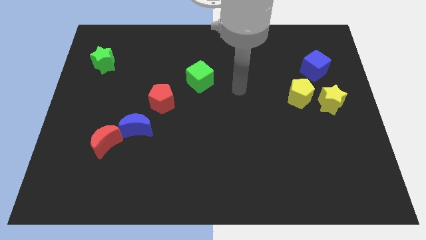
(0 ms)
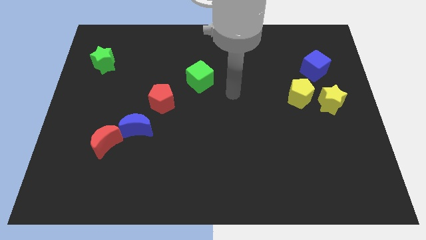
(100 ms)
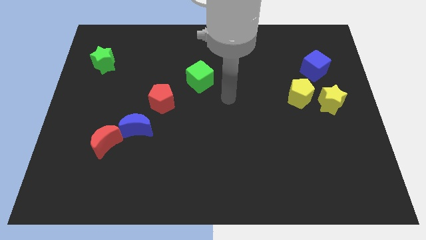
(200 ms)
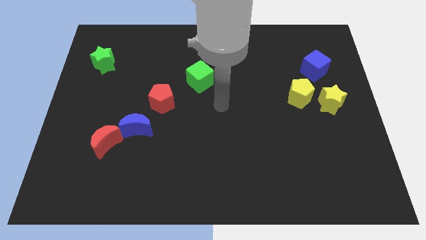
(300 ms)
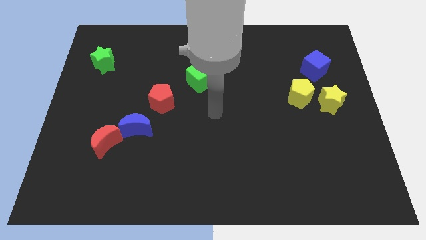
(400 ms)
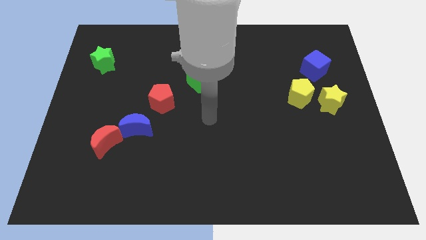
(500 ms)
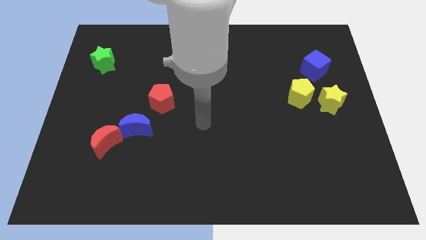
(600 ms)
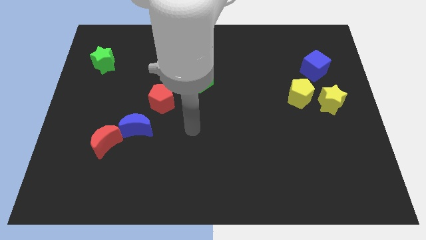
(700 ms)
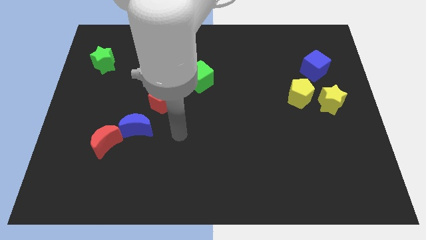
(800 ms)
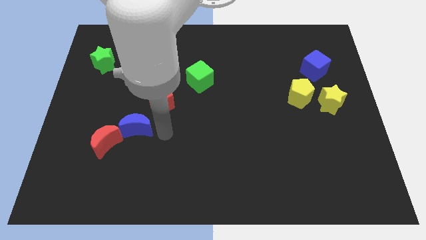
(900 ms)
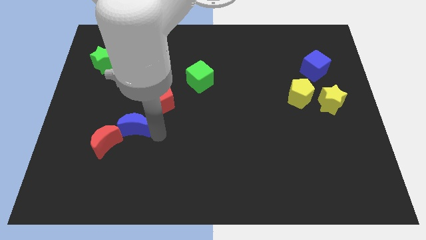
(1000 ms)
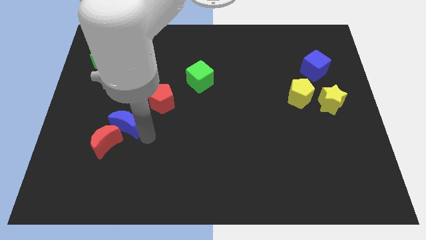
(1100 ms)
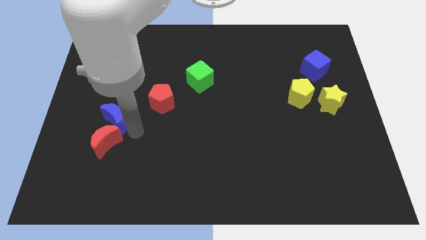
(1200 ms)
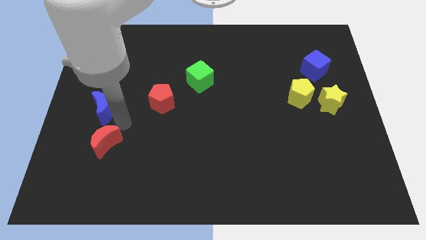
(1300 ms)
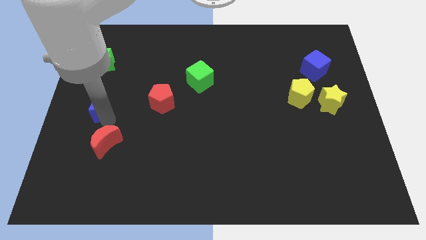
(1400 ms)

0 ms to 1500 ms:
separate the red moon from the blue moon

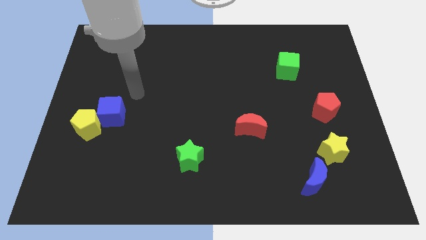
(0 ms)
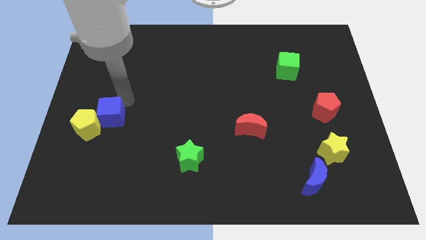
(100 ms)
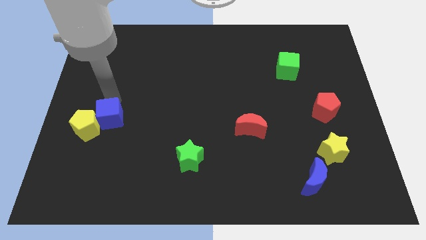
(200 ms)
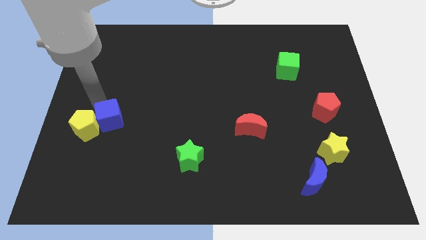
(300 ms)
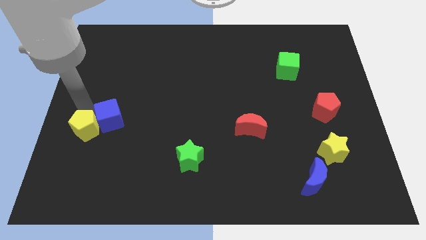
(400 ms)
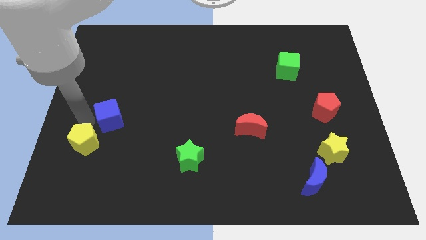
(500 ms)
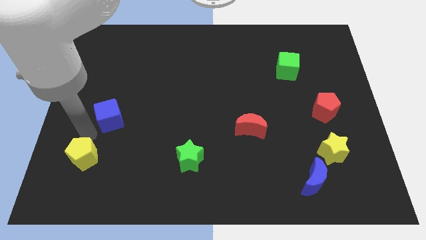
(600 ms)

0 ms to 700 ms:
move the blue cube away from the yellow pentagon

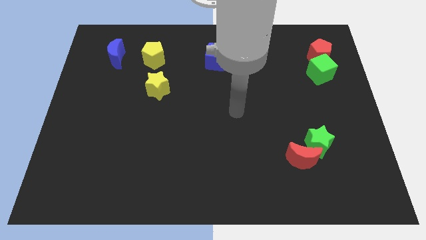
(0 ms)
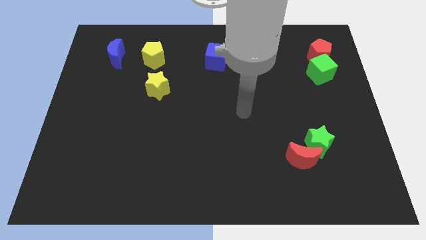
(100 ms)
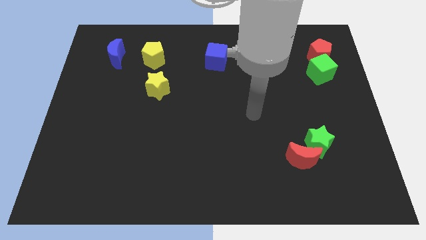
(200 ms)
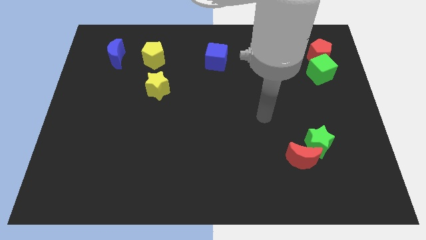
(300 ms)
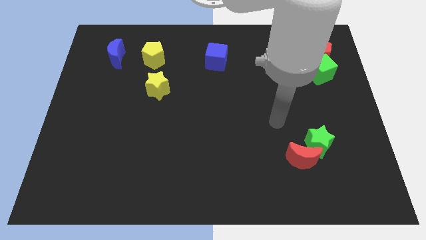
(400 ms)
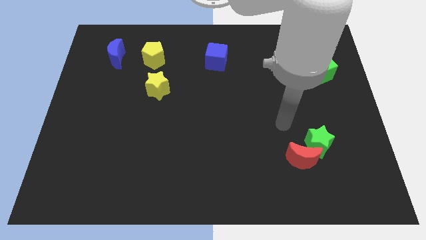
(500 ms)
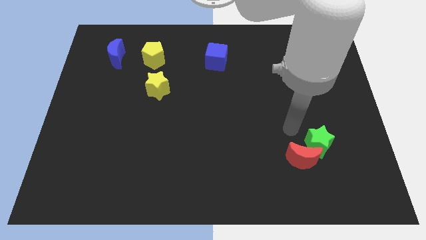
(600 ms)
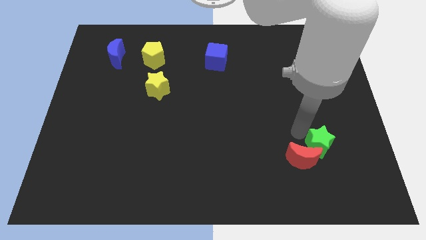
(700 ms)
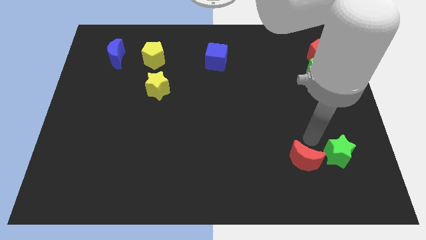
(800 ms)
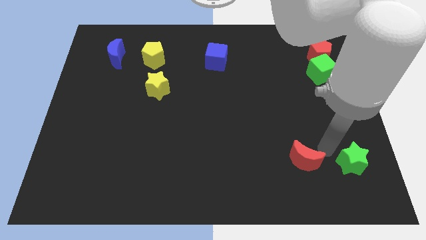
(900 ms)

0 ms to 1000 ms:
separate the red moon from the green star

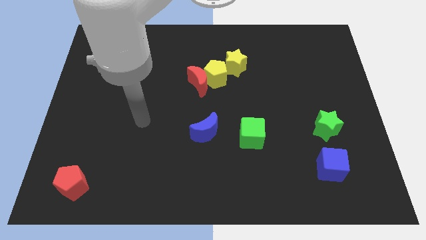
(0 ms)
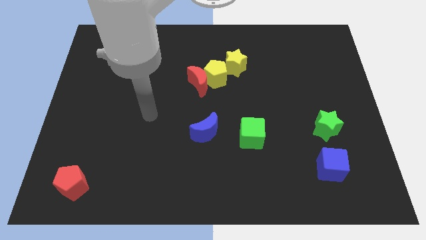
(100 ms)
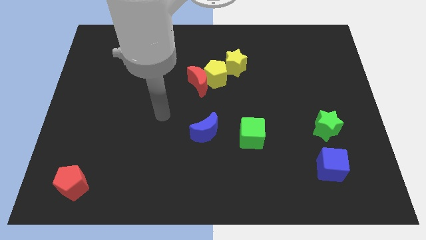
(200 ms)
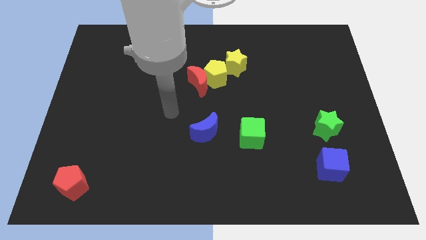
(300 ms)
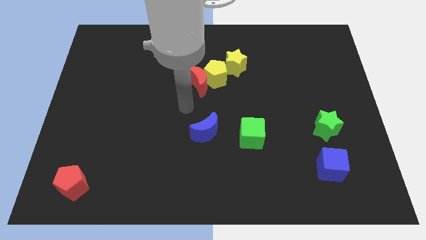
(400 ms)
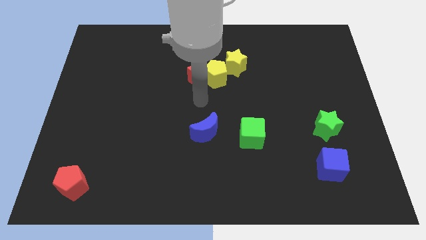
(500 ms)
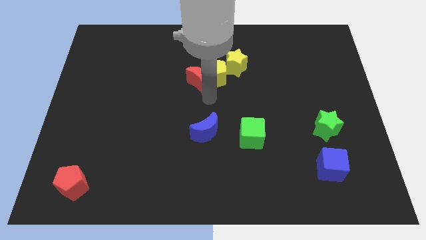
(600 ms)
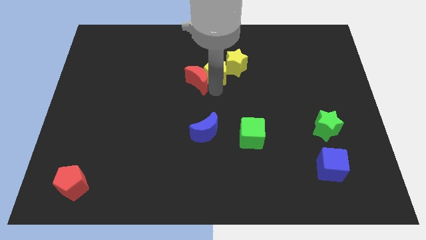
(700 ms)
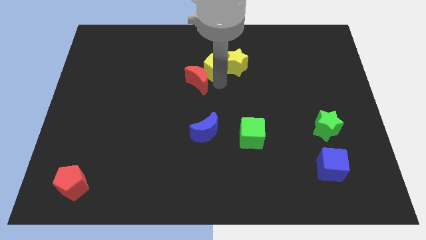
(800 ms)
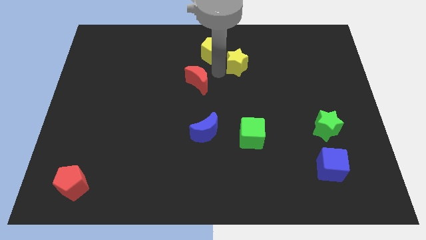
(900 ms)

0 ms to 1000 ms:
separate the red moon from the yellow pentagon

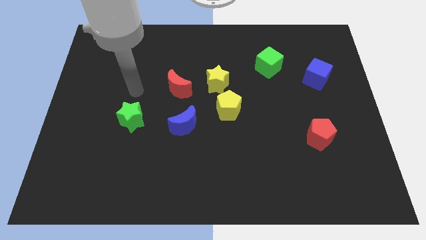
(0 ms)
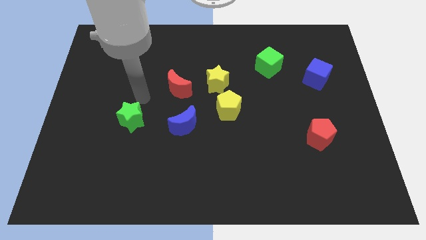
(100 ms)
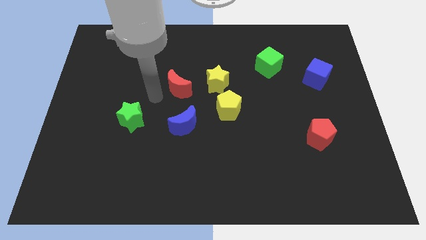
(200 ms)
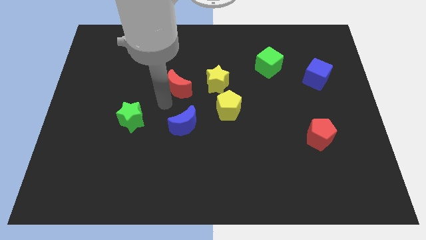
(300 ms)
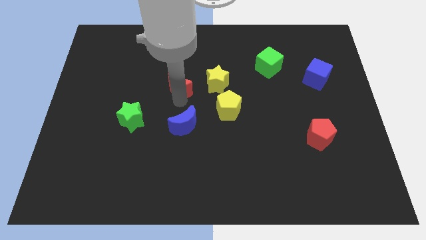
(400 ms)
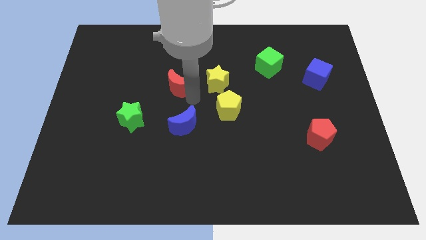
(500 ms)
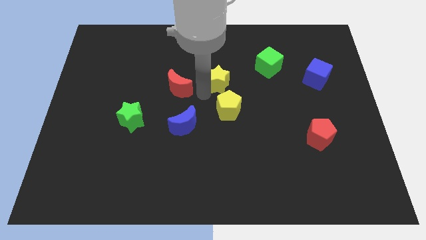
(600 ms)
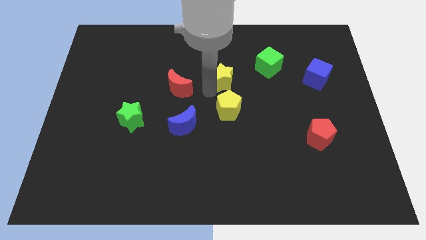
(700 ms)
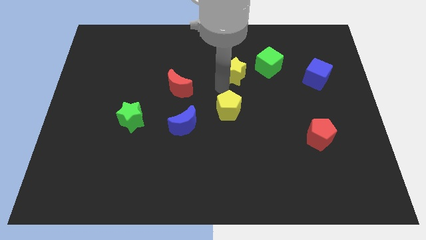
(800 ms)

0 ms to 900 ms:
pull the yellow pentagon apart from the yellow star

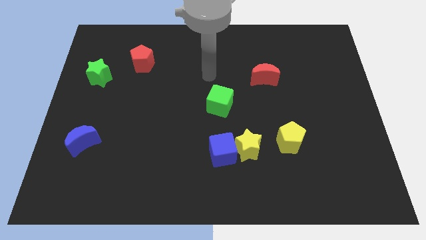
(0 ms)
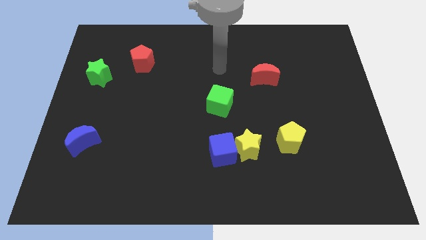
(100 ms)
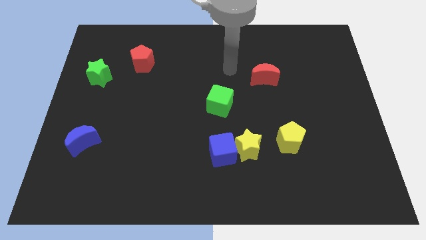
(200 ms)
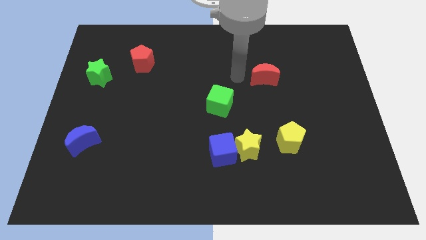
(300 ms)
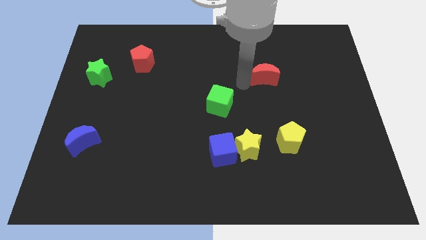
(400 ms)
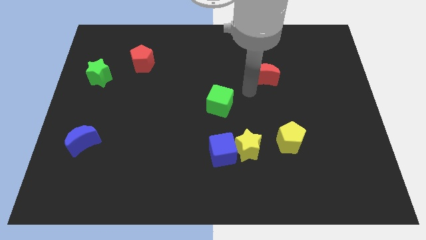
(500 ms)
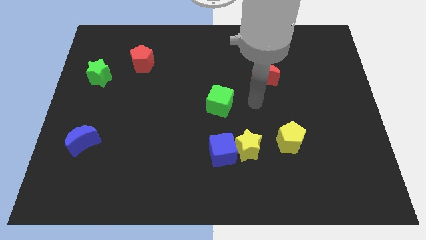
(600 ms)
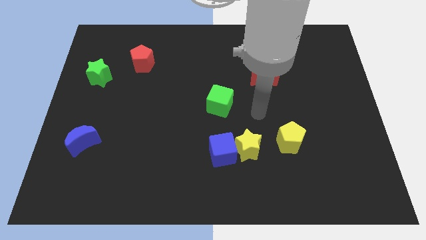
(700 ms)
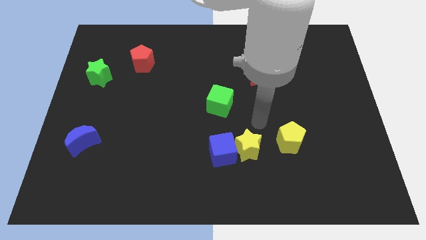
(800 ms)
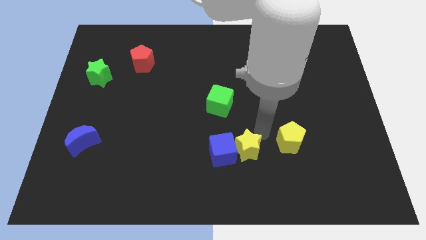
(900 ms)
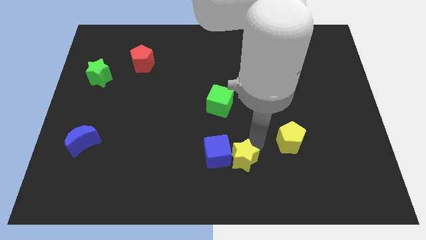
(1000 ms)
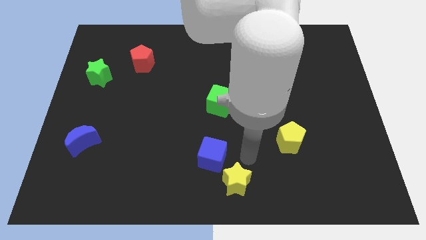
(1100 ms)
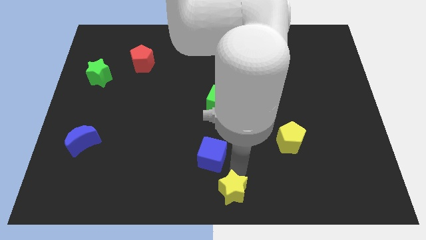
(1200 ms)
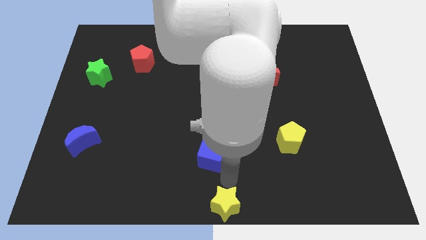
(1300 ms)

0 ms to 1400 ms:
move the blue cube away from the yellow star

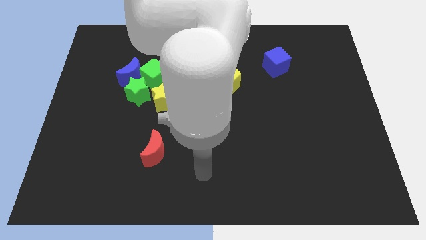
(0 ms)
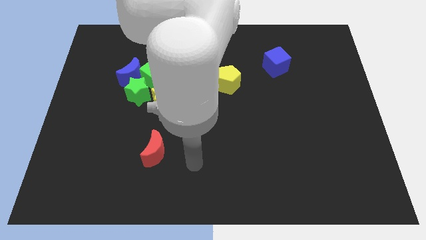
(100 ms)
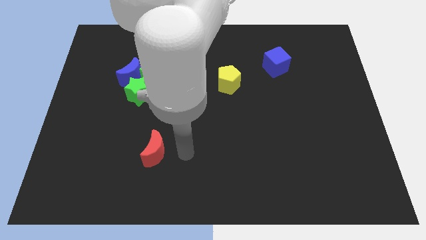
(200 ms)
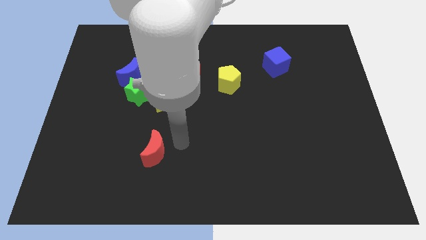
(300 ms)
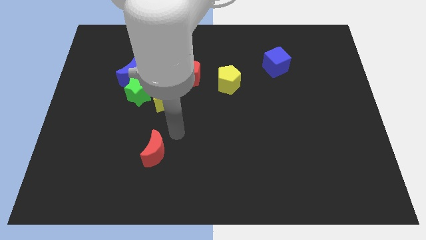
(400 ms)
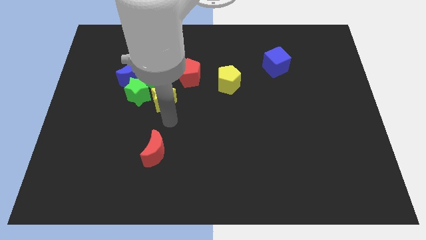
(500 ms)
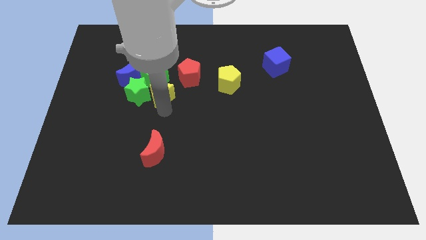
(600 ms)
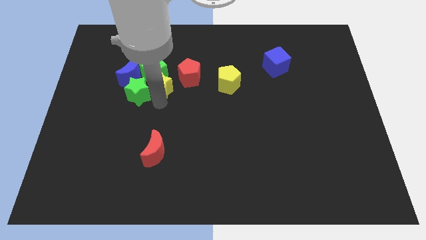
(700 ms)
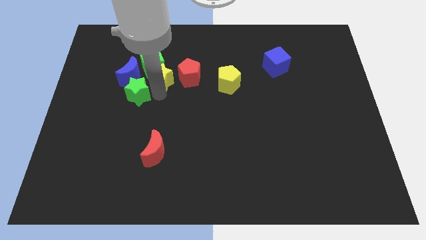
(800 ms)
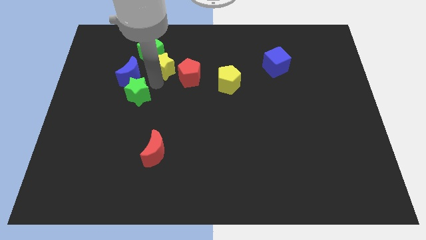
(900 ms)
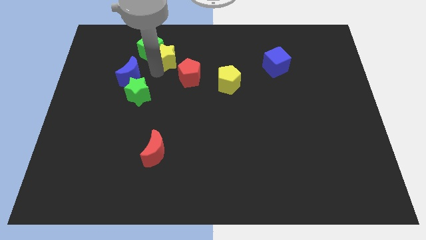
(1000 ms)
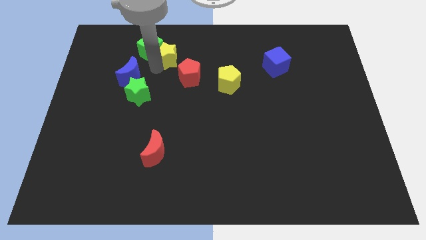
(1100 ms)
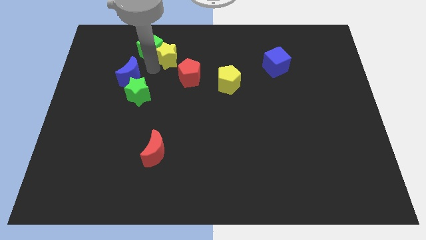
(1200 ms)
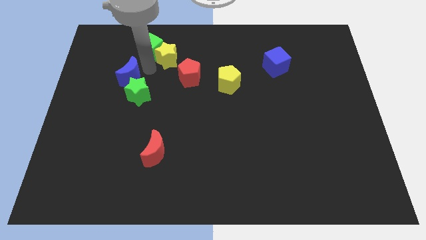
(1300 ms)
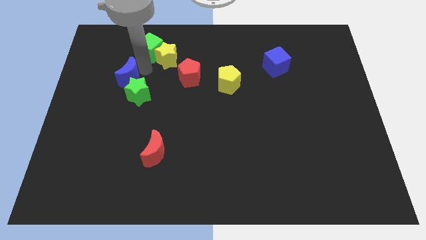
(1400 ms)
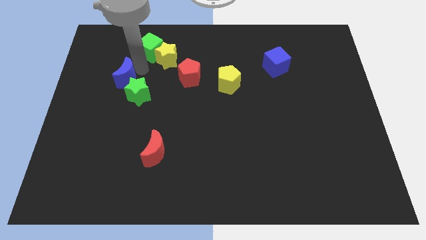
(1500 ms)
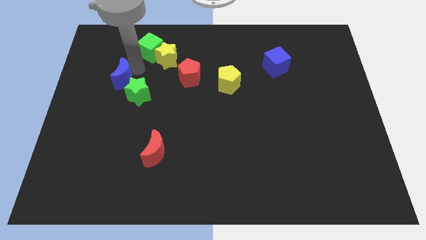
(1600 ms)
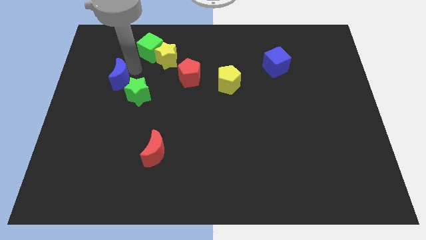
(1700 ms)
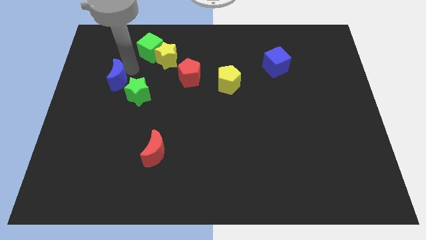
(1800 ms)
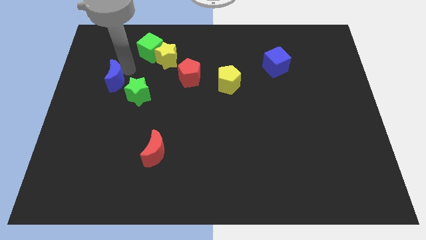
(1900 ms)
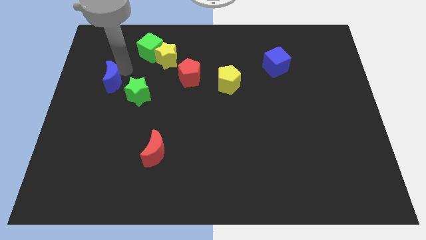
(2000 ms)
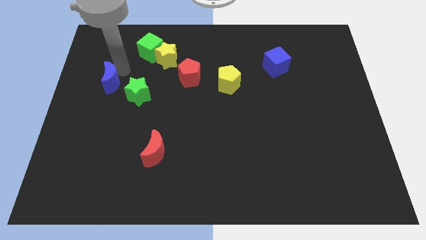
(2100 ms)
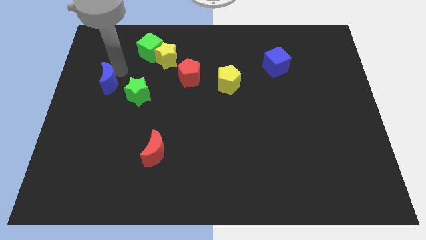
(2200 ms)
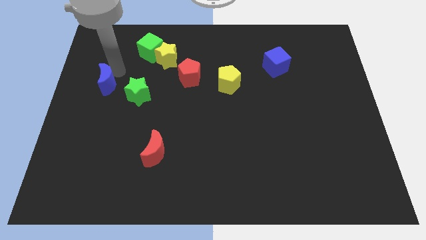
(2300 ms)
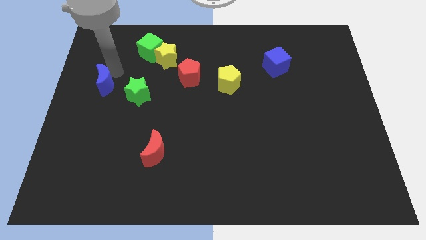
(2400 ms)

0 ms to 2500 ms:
move the blue moon away from the green cube and green star

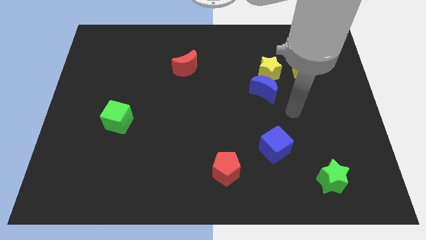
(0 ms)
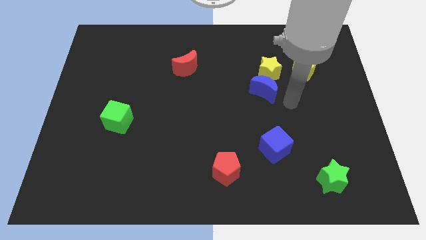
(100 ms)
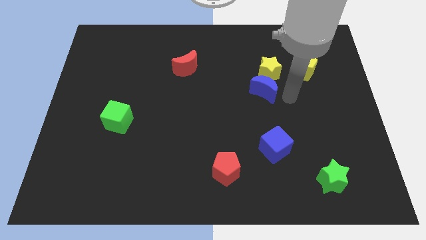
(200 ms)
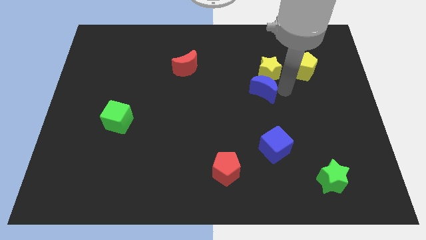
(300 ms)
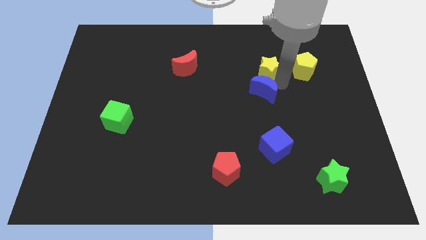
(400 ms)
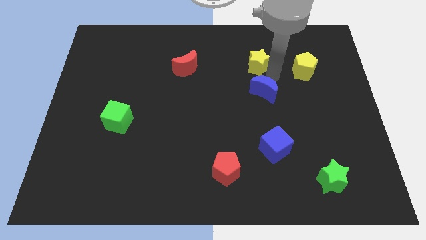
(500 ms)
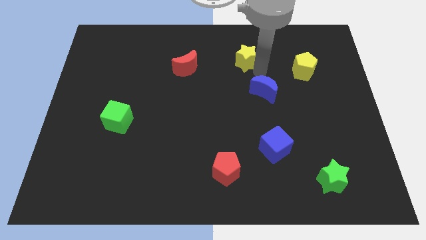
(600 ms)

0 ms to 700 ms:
pull the blue moon apart from the yellow star
